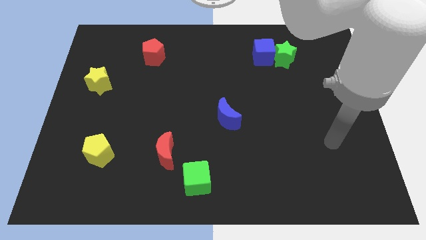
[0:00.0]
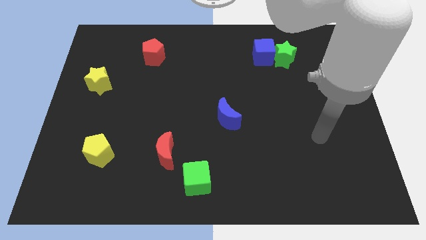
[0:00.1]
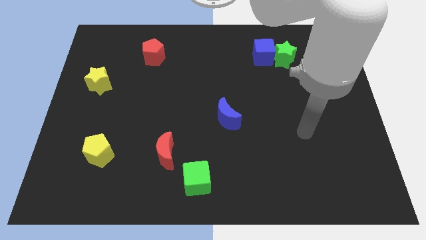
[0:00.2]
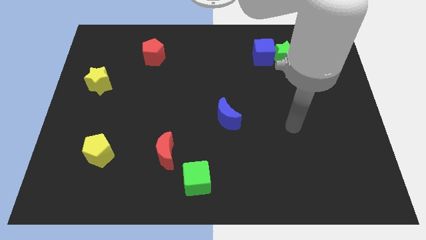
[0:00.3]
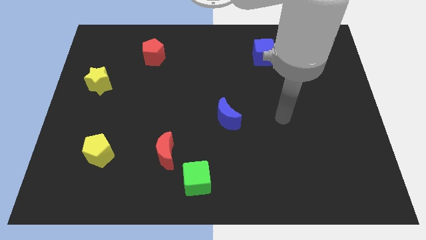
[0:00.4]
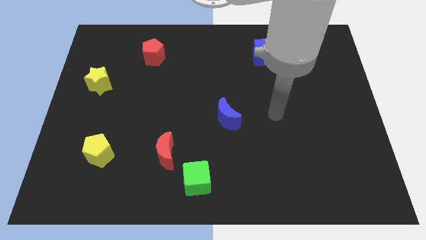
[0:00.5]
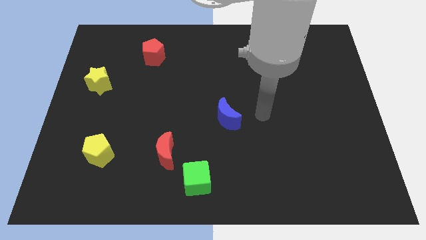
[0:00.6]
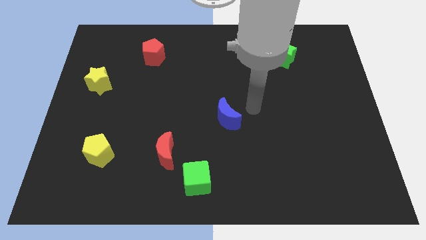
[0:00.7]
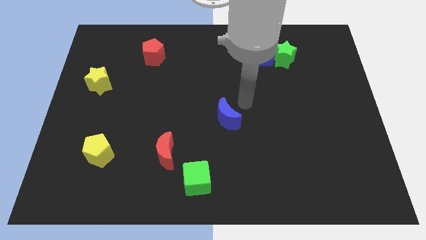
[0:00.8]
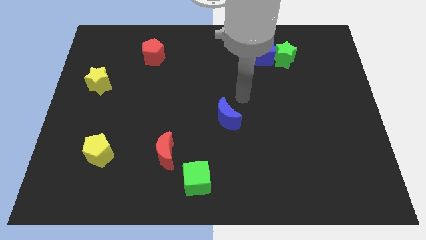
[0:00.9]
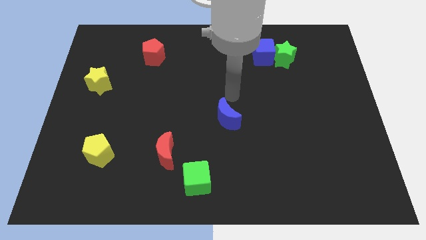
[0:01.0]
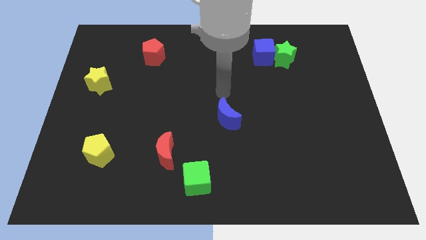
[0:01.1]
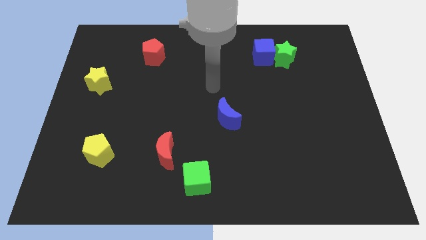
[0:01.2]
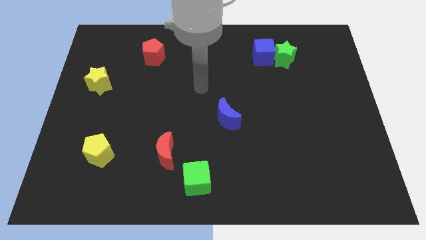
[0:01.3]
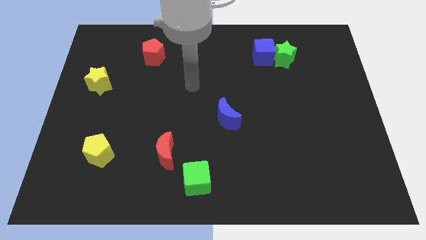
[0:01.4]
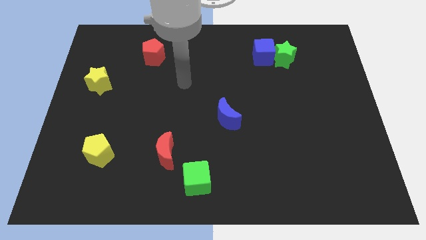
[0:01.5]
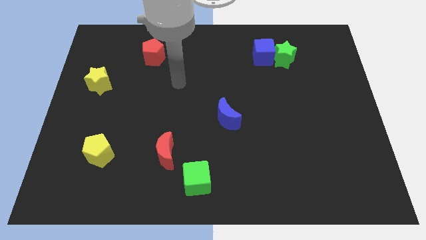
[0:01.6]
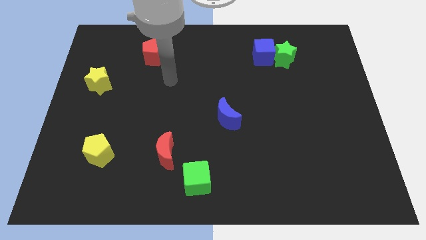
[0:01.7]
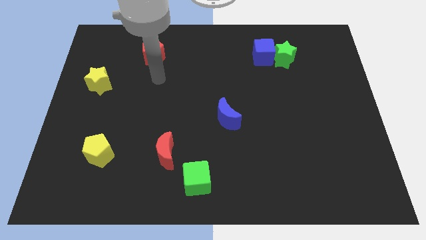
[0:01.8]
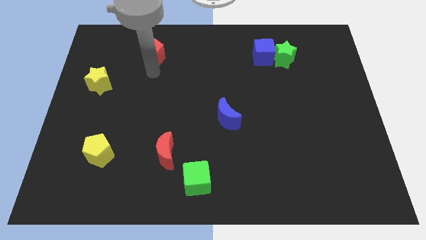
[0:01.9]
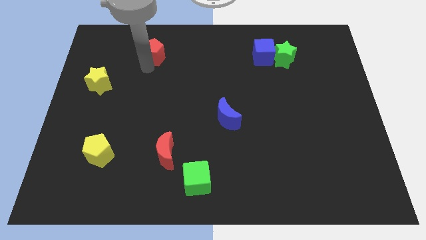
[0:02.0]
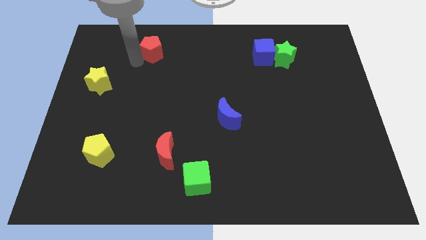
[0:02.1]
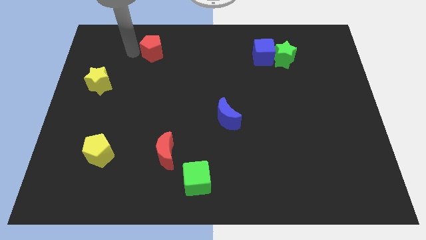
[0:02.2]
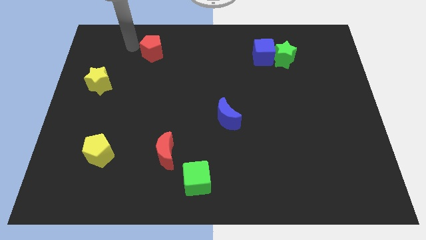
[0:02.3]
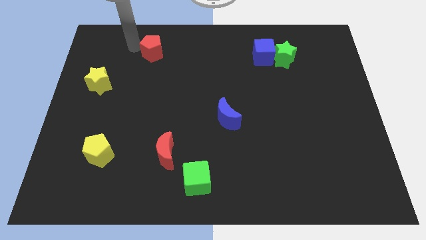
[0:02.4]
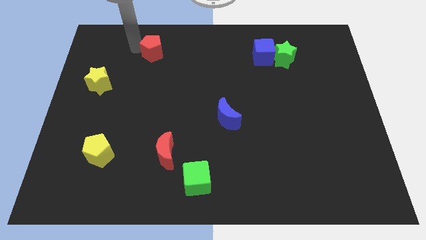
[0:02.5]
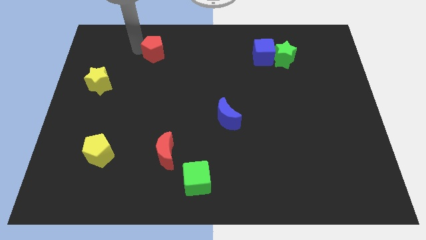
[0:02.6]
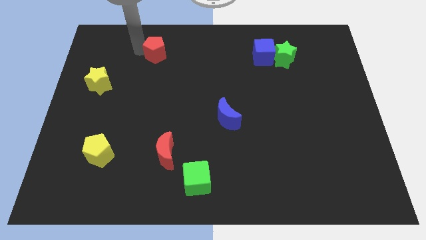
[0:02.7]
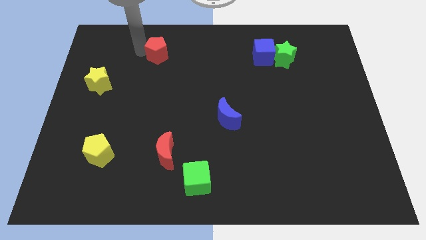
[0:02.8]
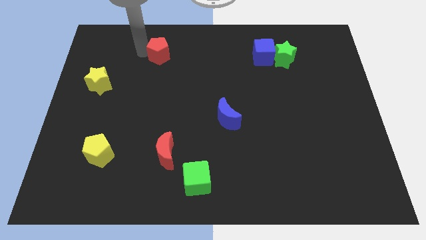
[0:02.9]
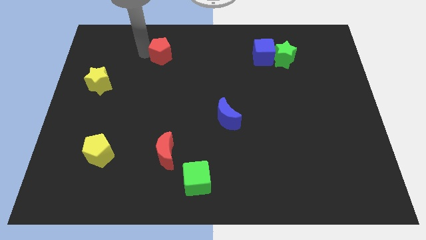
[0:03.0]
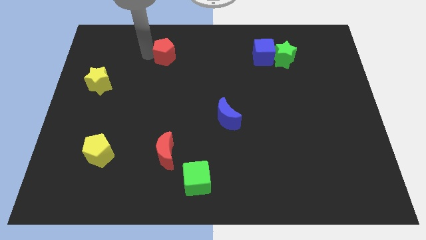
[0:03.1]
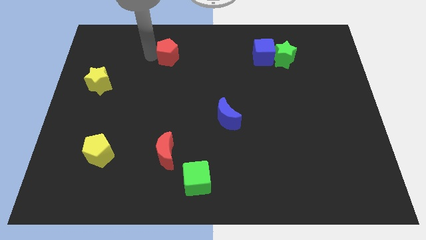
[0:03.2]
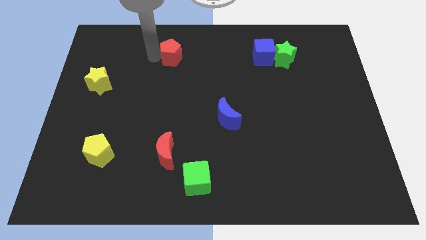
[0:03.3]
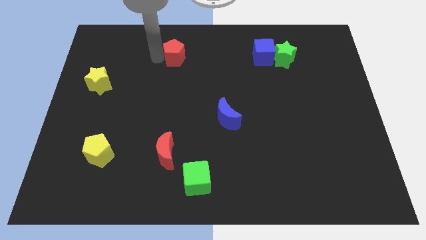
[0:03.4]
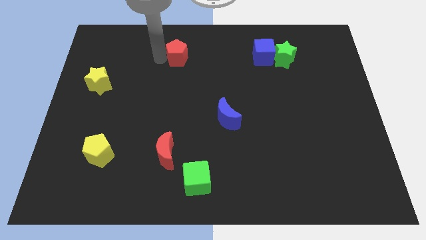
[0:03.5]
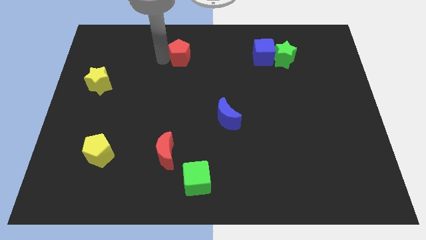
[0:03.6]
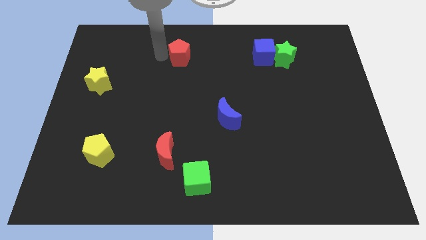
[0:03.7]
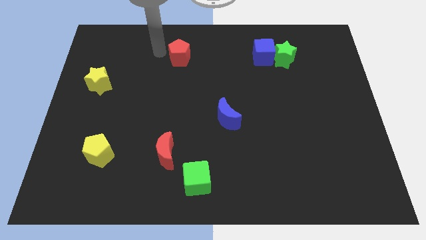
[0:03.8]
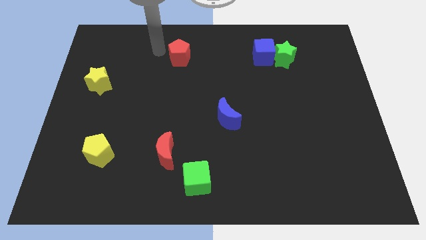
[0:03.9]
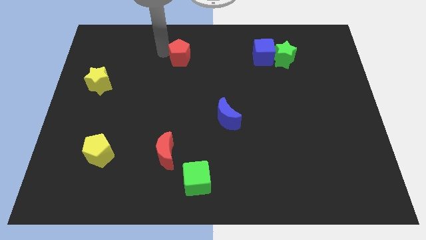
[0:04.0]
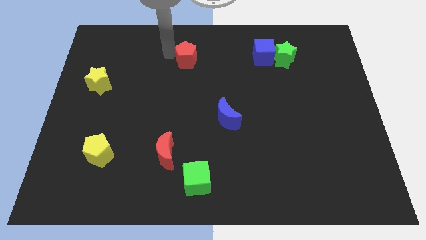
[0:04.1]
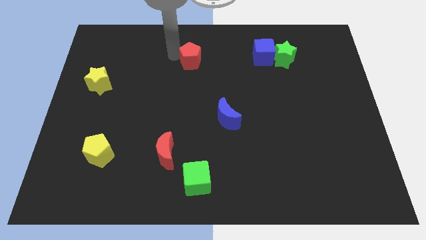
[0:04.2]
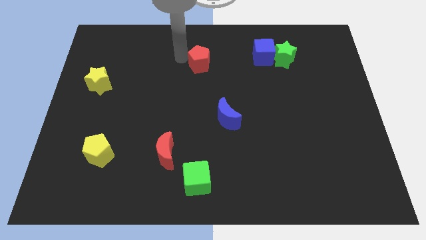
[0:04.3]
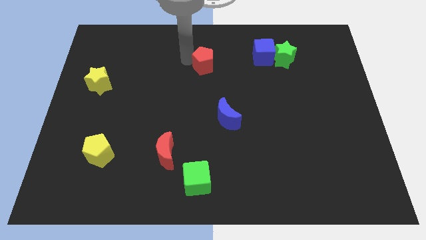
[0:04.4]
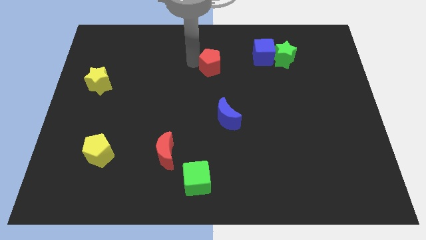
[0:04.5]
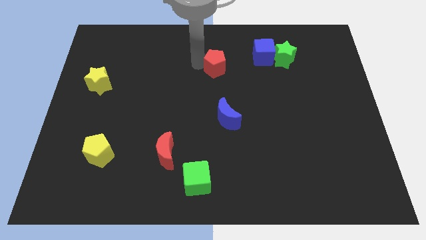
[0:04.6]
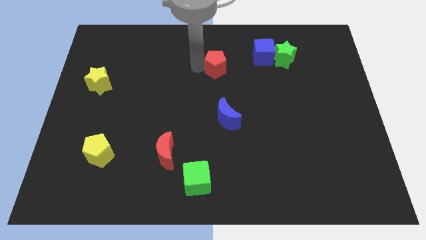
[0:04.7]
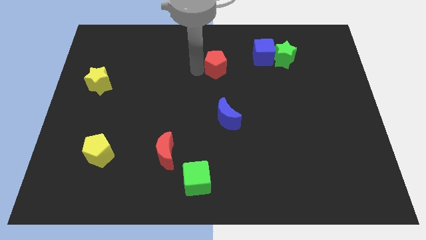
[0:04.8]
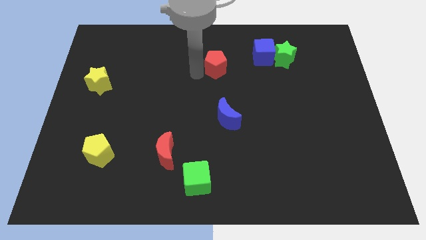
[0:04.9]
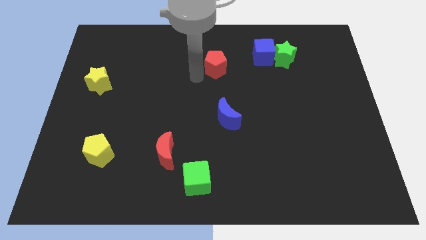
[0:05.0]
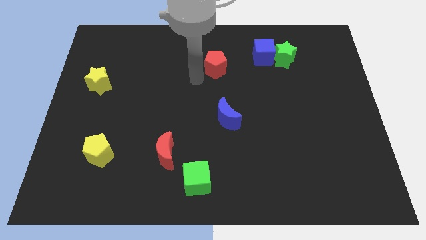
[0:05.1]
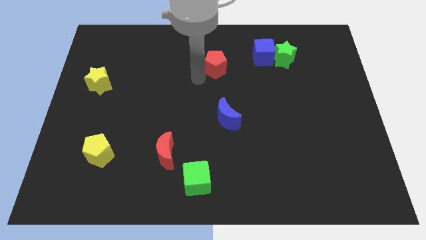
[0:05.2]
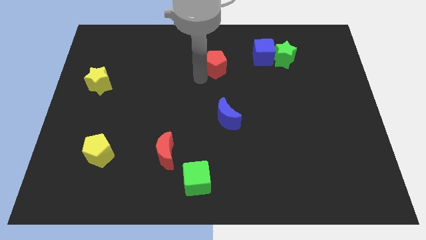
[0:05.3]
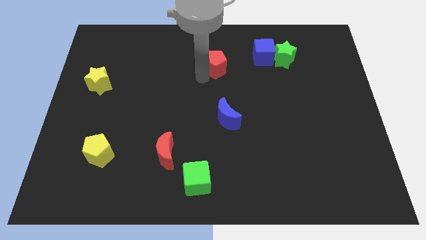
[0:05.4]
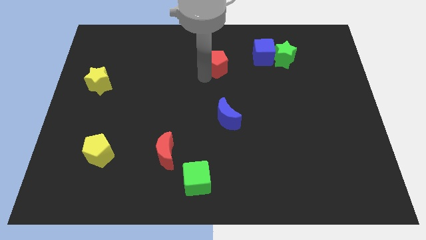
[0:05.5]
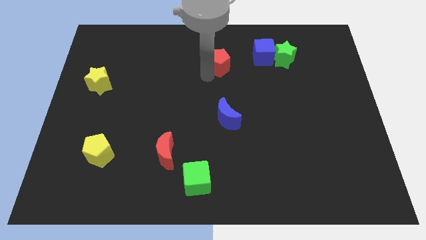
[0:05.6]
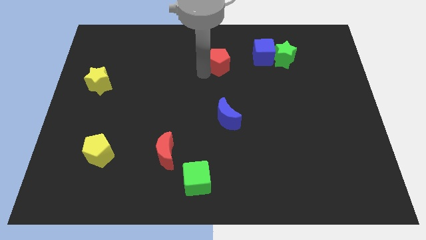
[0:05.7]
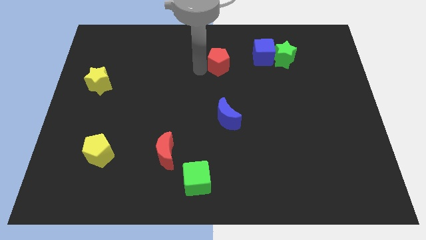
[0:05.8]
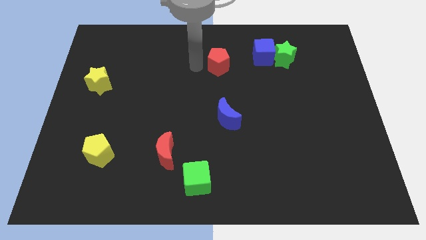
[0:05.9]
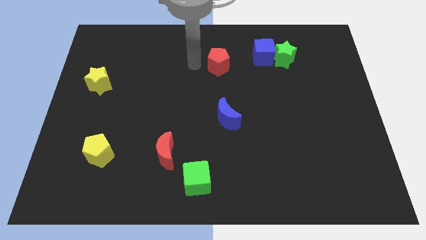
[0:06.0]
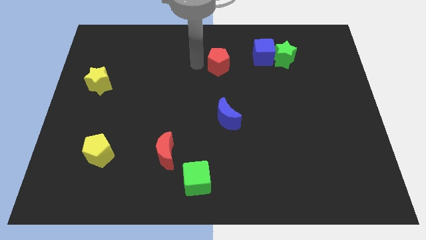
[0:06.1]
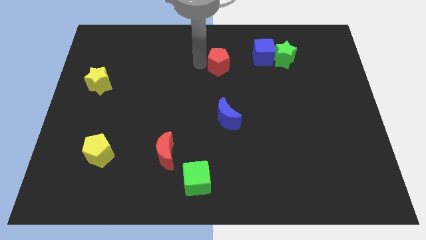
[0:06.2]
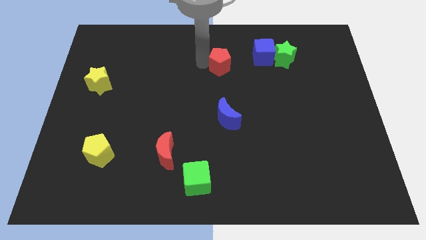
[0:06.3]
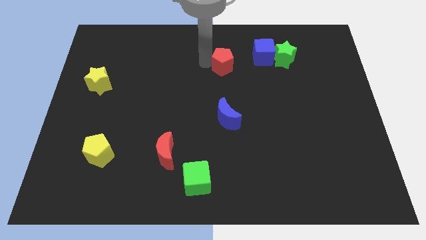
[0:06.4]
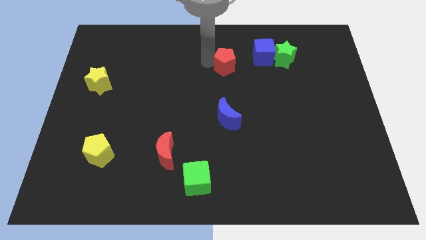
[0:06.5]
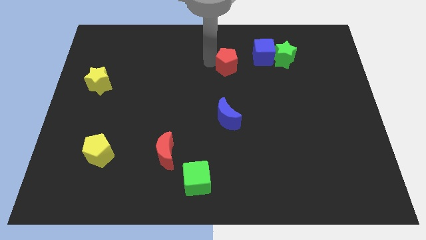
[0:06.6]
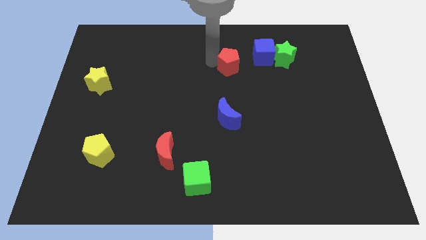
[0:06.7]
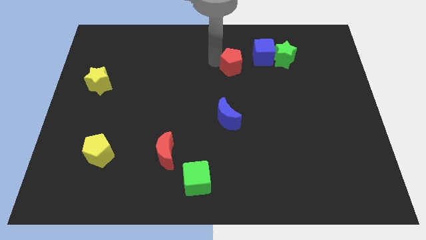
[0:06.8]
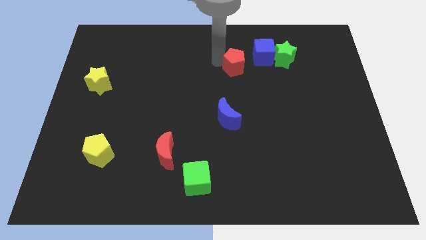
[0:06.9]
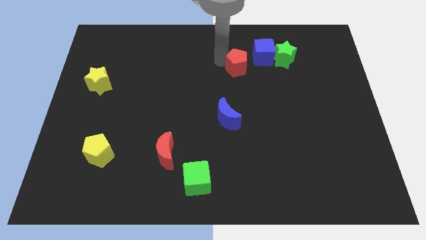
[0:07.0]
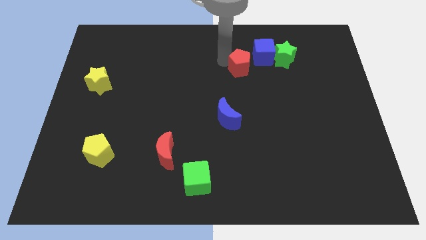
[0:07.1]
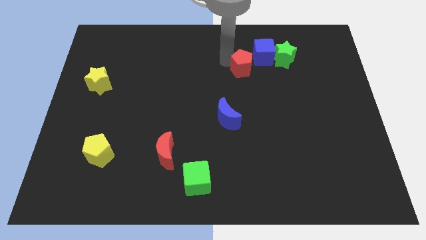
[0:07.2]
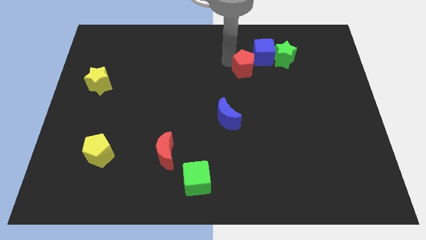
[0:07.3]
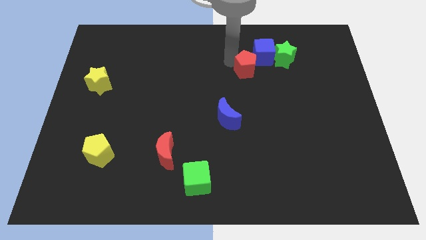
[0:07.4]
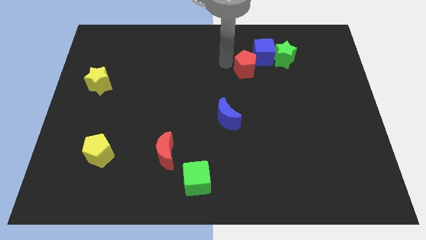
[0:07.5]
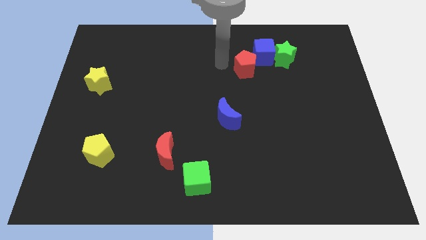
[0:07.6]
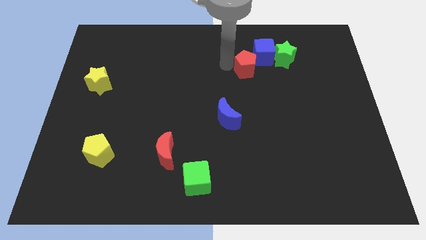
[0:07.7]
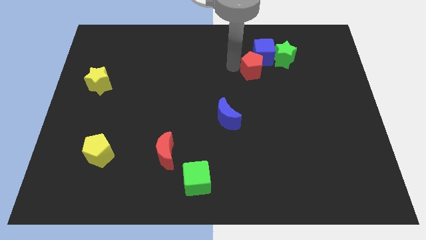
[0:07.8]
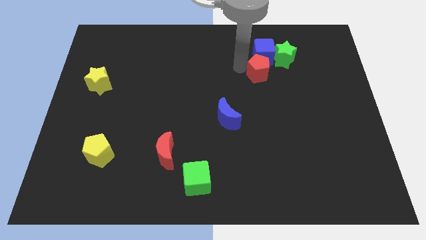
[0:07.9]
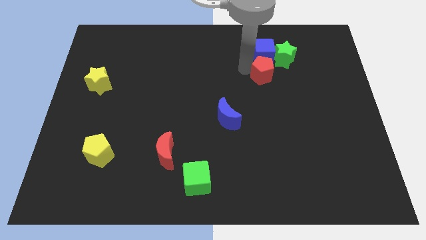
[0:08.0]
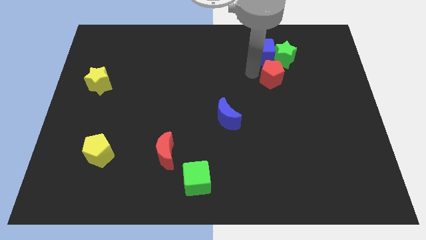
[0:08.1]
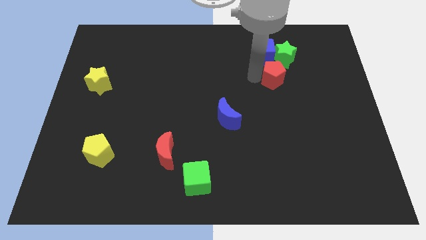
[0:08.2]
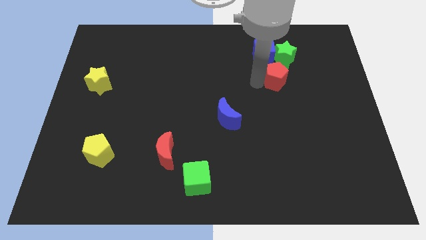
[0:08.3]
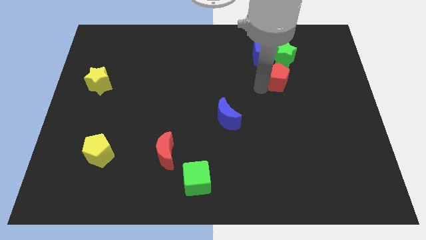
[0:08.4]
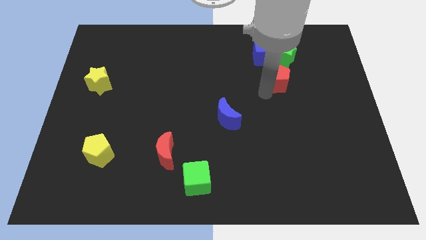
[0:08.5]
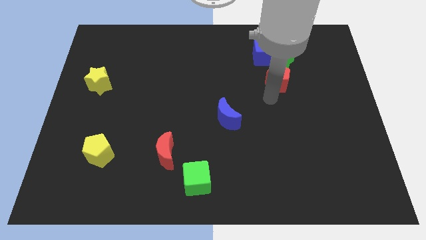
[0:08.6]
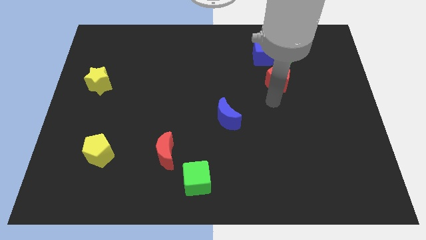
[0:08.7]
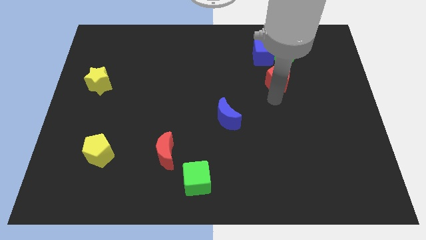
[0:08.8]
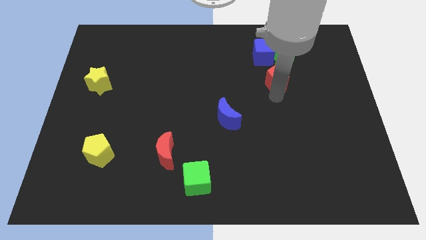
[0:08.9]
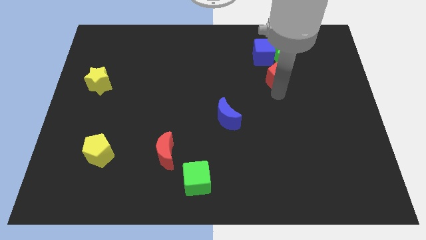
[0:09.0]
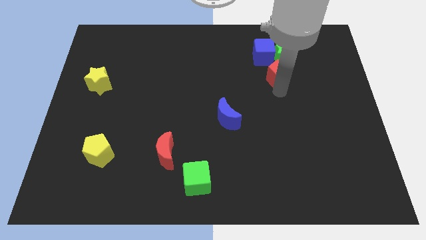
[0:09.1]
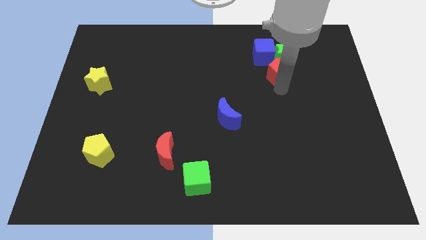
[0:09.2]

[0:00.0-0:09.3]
move the red pentagon close to the green star
